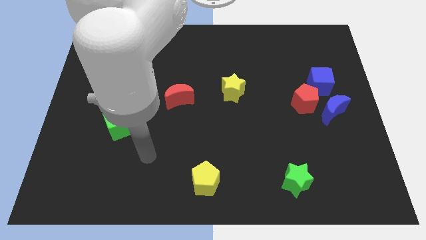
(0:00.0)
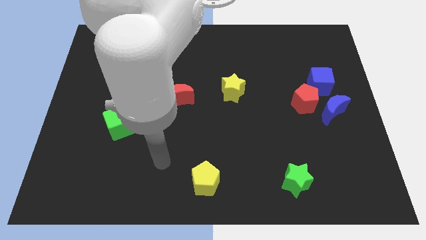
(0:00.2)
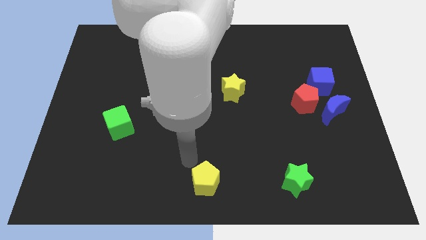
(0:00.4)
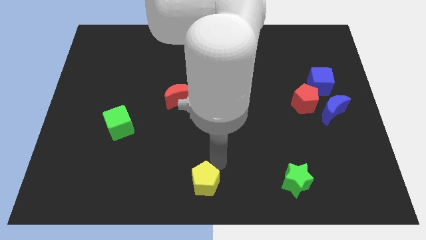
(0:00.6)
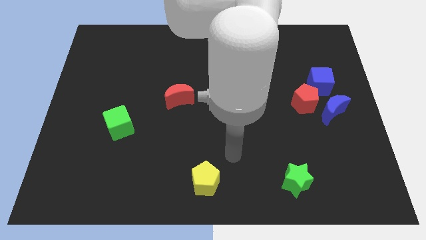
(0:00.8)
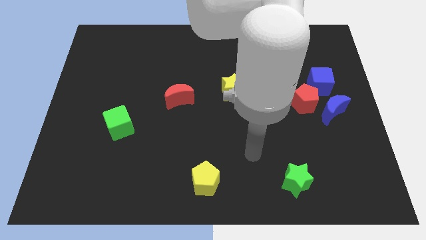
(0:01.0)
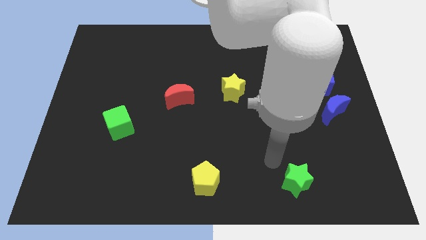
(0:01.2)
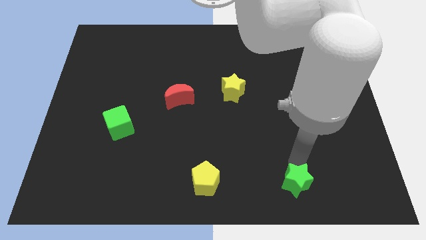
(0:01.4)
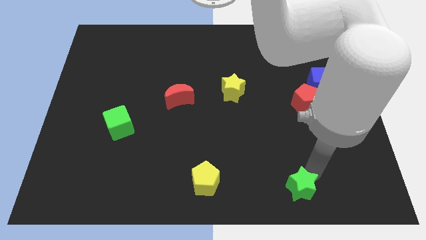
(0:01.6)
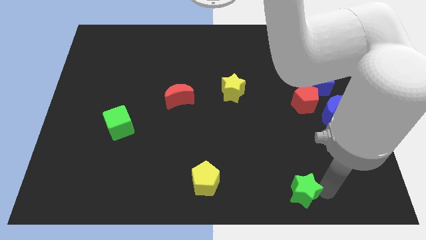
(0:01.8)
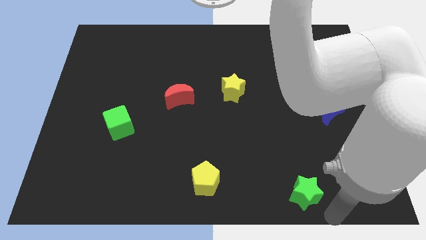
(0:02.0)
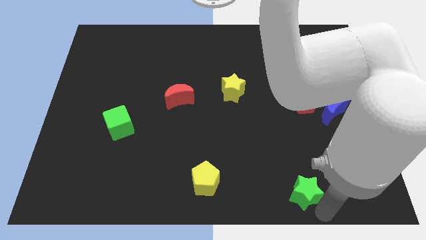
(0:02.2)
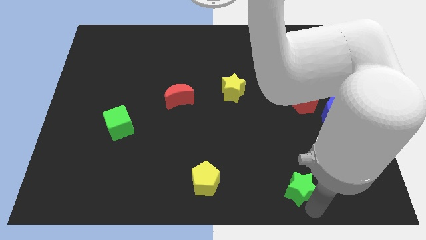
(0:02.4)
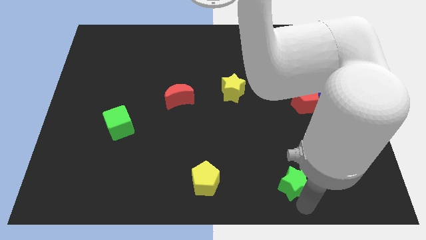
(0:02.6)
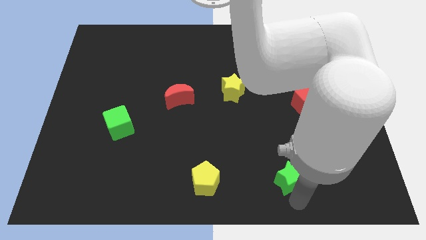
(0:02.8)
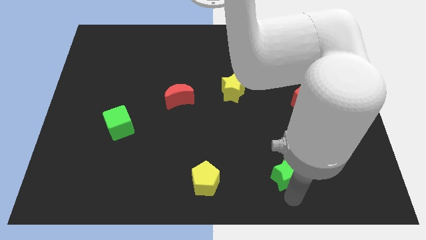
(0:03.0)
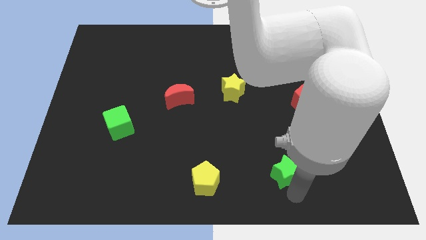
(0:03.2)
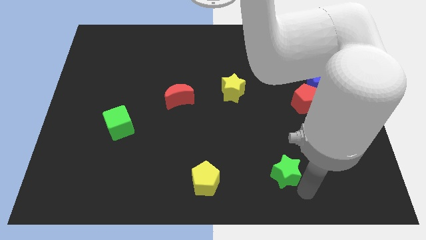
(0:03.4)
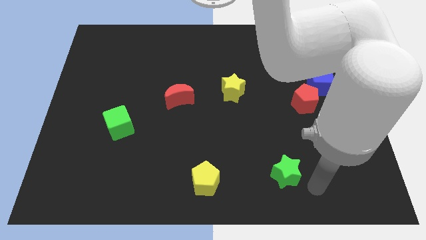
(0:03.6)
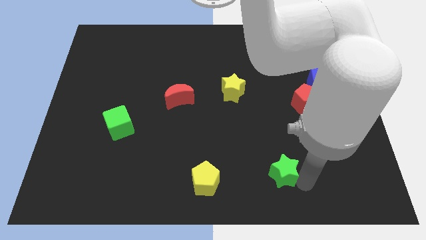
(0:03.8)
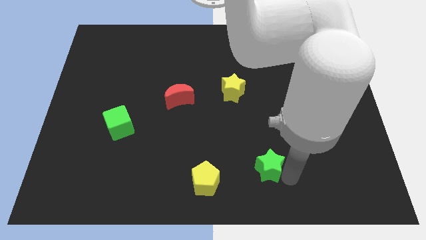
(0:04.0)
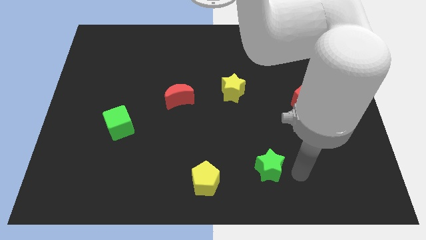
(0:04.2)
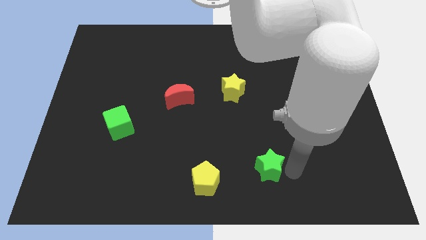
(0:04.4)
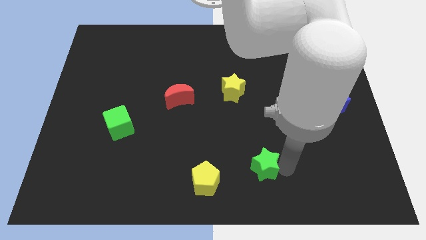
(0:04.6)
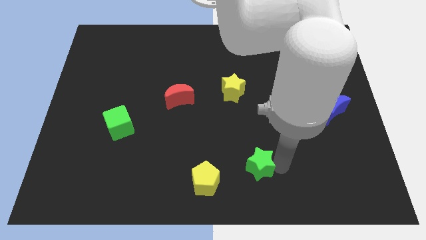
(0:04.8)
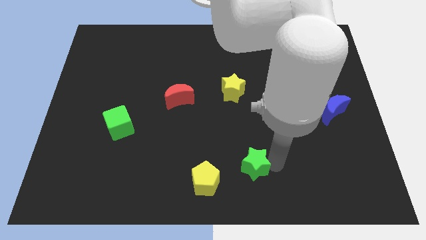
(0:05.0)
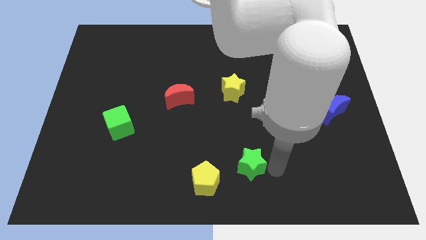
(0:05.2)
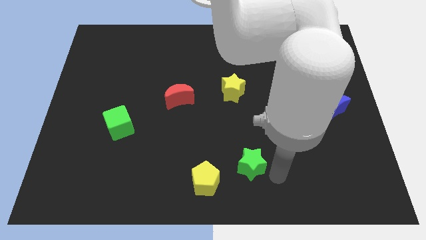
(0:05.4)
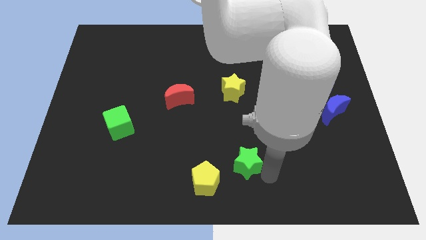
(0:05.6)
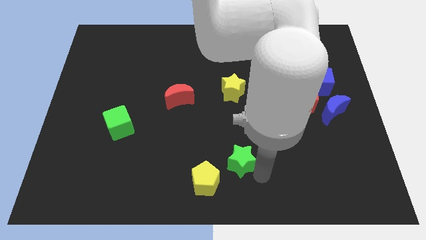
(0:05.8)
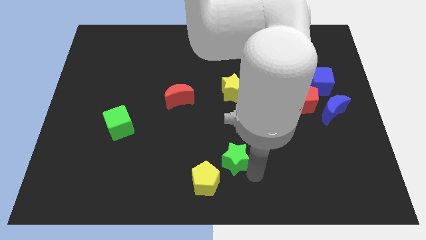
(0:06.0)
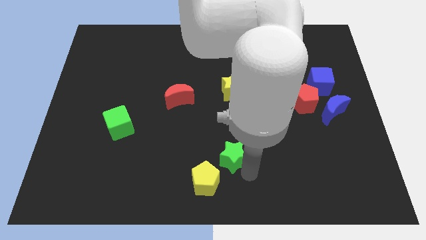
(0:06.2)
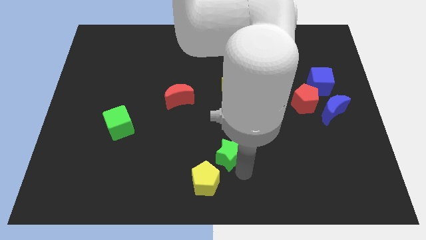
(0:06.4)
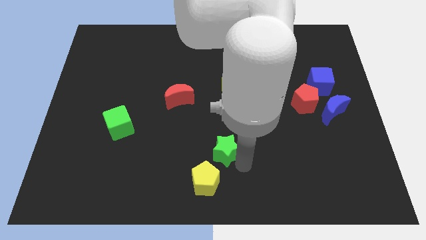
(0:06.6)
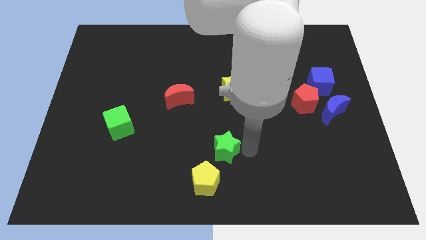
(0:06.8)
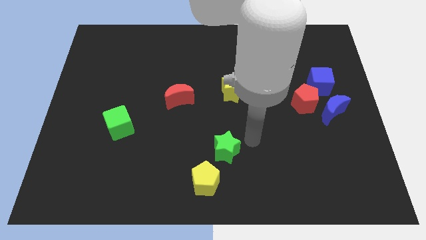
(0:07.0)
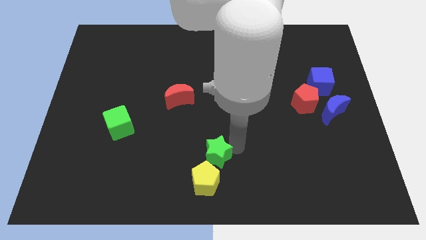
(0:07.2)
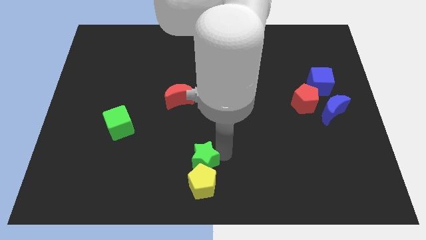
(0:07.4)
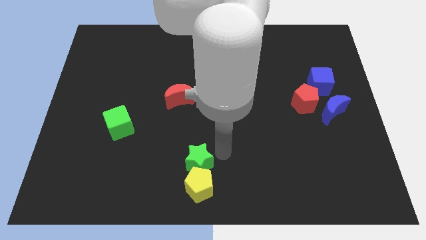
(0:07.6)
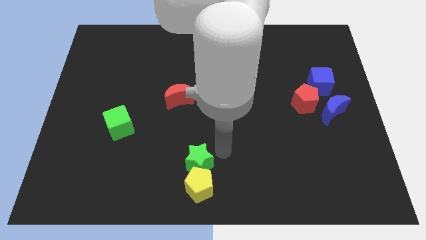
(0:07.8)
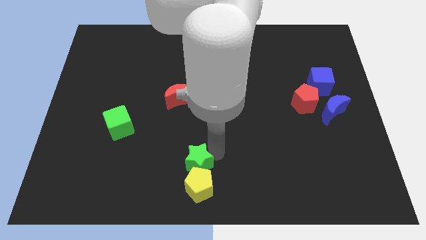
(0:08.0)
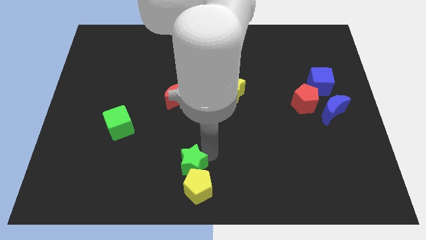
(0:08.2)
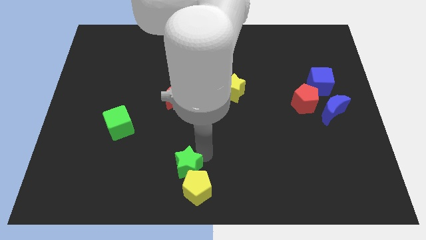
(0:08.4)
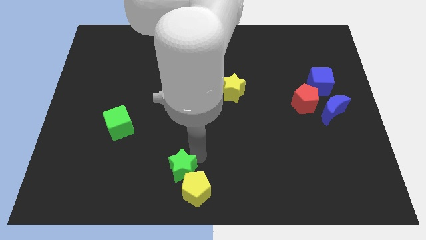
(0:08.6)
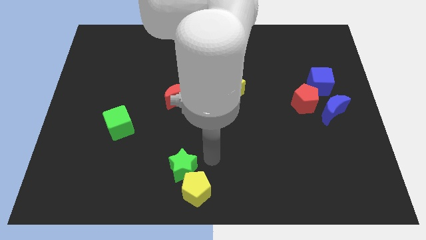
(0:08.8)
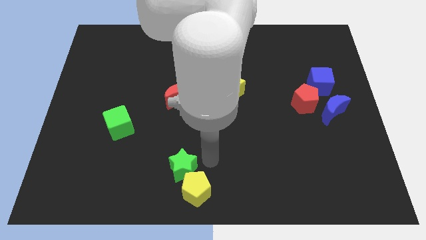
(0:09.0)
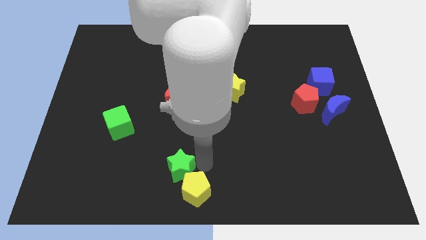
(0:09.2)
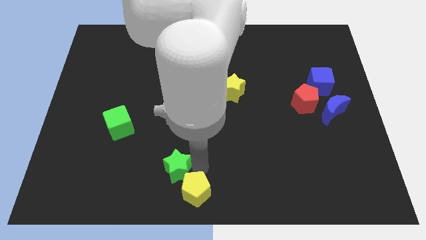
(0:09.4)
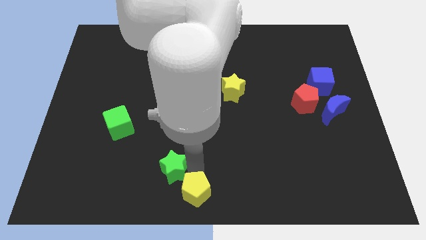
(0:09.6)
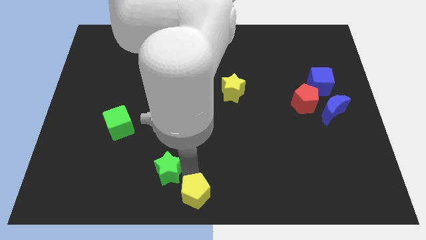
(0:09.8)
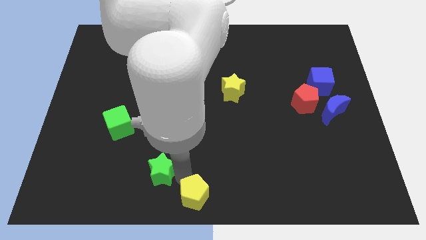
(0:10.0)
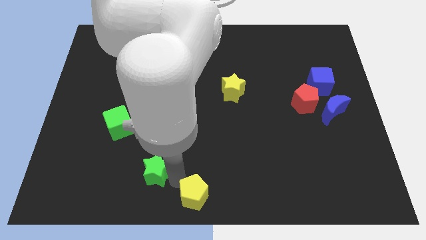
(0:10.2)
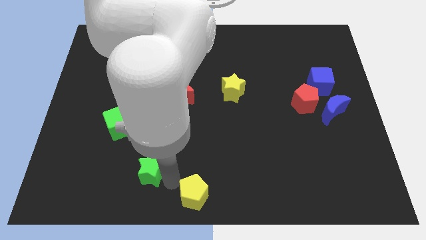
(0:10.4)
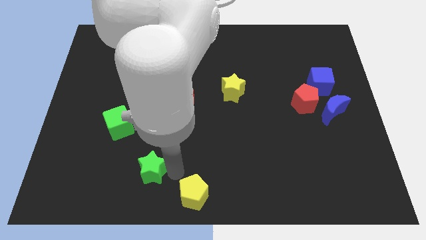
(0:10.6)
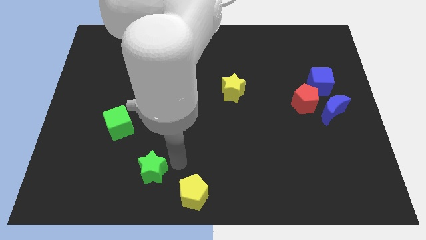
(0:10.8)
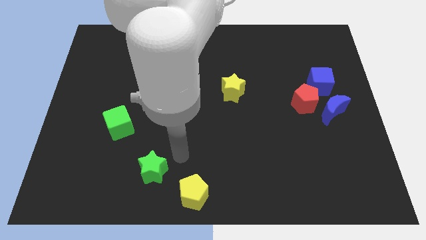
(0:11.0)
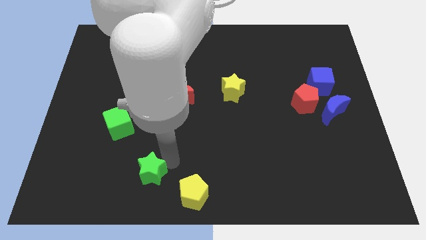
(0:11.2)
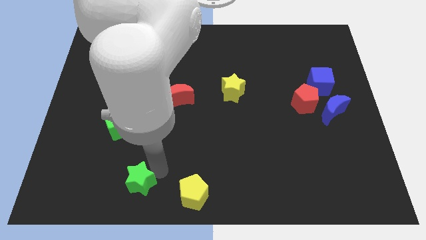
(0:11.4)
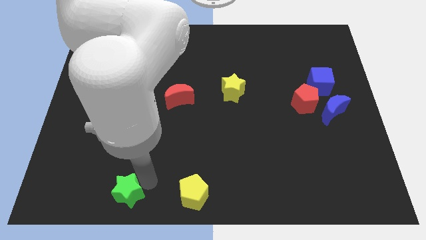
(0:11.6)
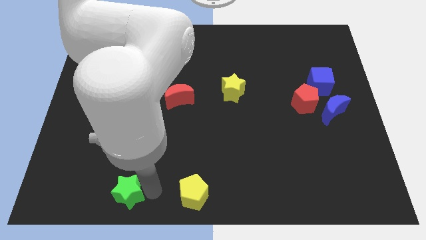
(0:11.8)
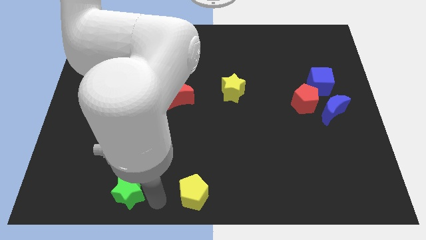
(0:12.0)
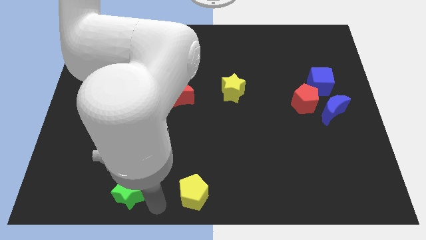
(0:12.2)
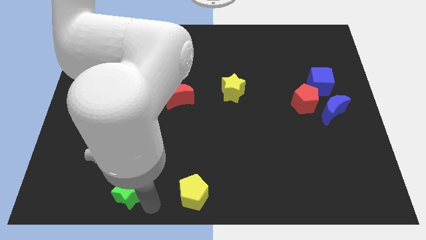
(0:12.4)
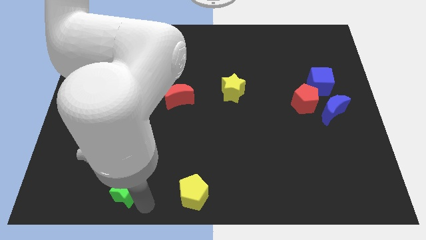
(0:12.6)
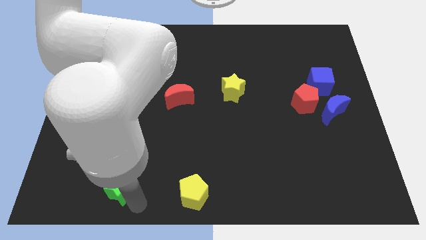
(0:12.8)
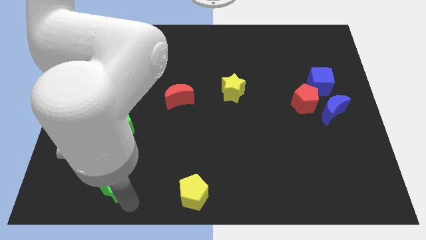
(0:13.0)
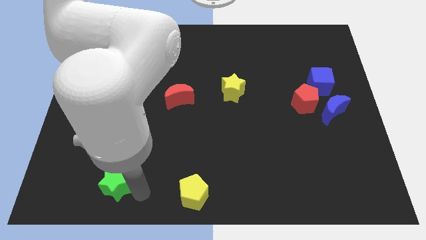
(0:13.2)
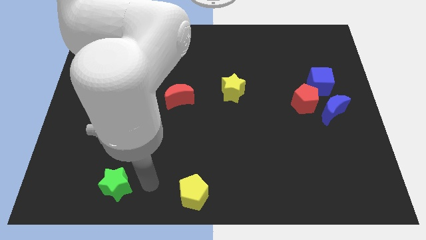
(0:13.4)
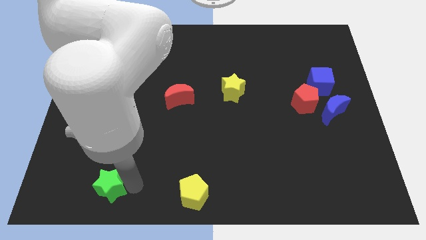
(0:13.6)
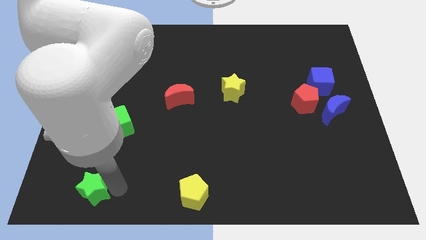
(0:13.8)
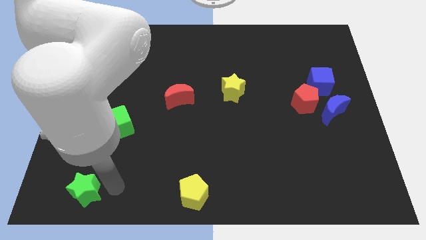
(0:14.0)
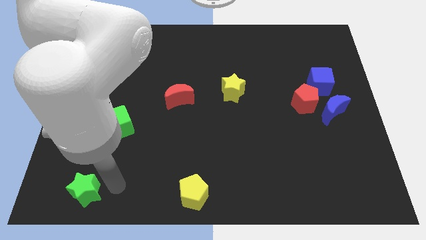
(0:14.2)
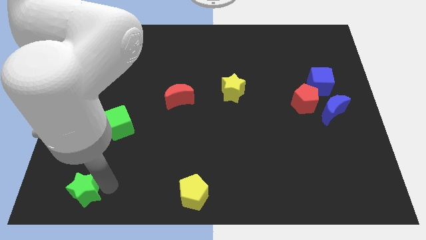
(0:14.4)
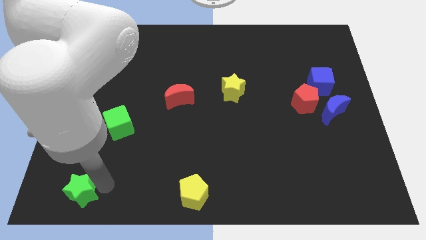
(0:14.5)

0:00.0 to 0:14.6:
put the green star to the bottom left
